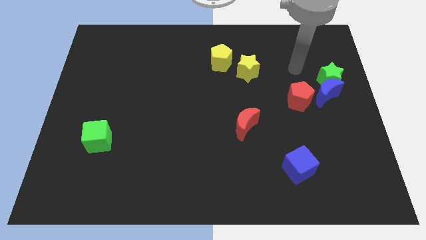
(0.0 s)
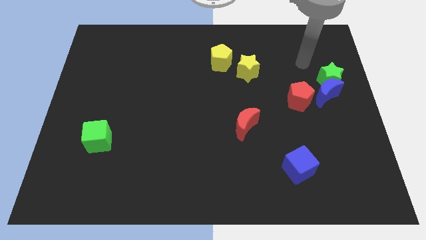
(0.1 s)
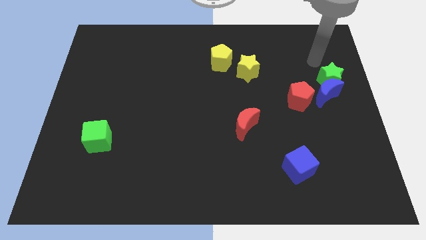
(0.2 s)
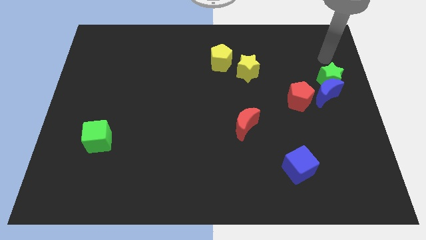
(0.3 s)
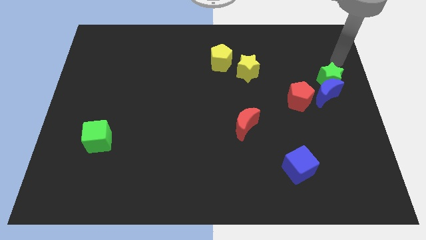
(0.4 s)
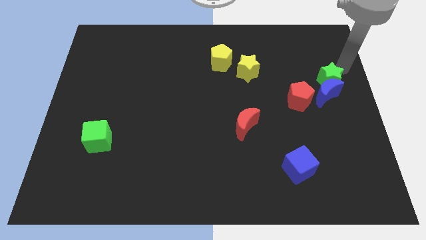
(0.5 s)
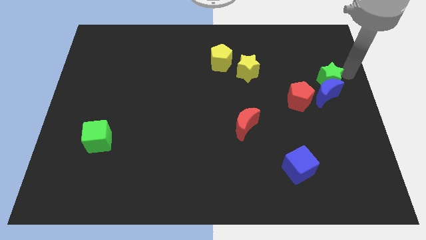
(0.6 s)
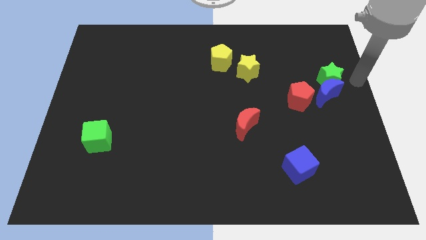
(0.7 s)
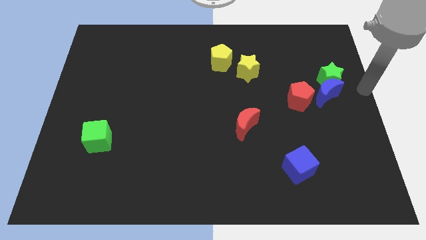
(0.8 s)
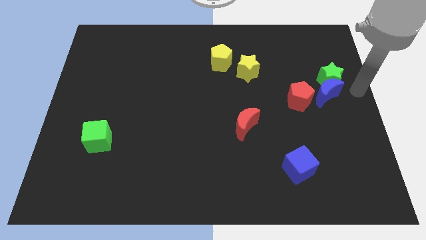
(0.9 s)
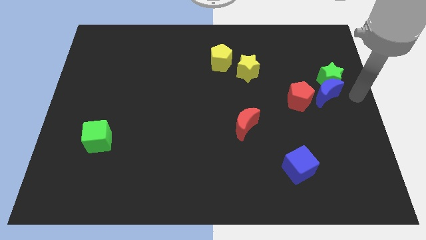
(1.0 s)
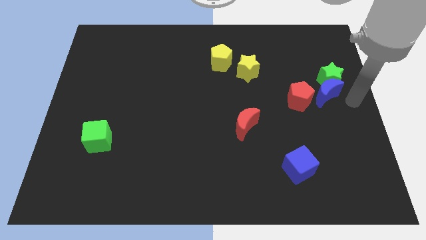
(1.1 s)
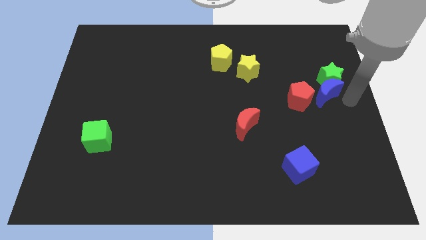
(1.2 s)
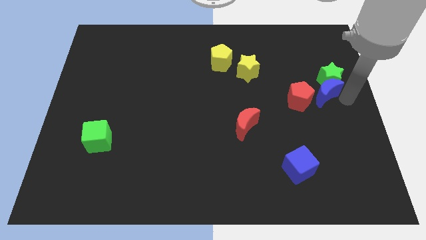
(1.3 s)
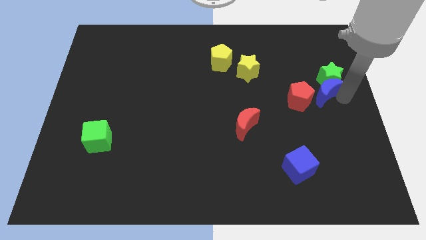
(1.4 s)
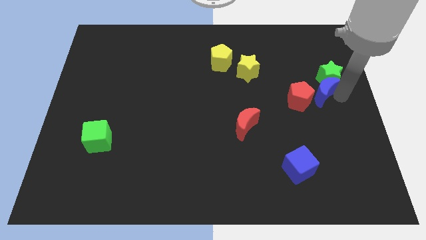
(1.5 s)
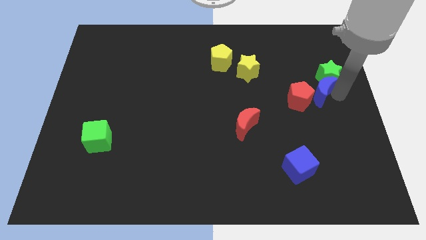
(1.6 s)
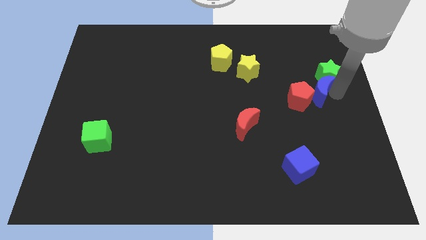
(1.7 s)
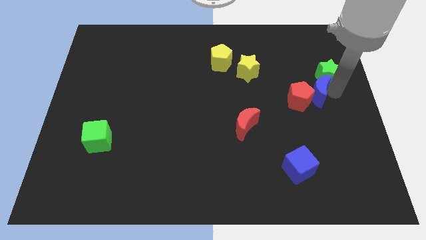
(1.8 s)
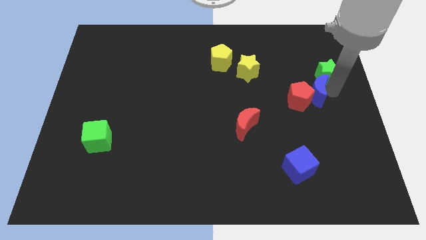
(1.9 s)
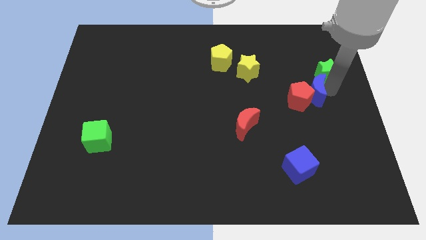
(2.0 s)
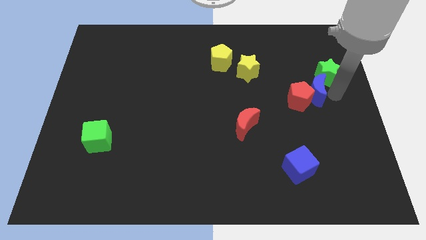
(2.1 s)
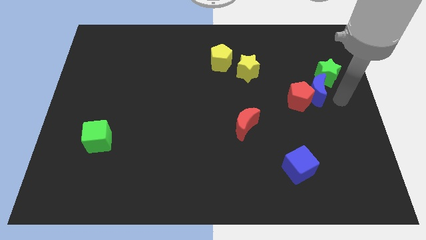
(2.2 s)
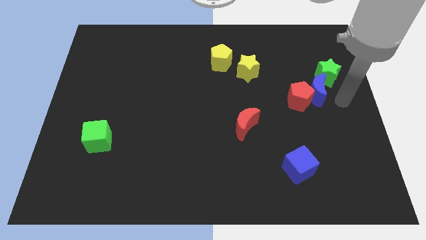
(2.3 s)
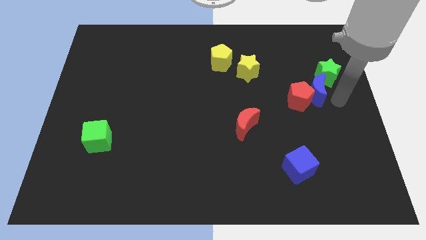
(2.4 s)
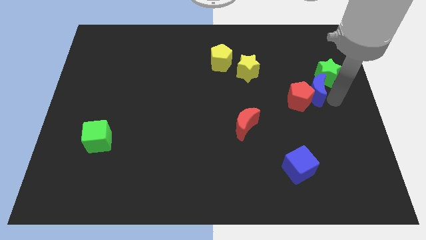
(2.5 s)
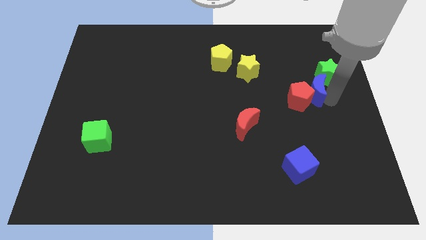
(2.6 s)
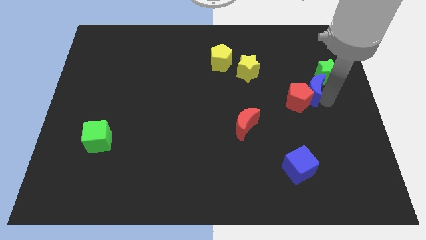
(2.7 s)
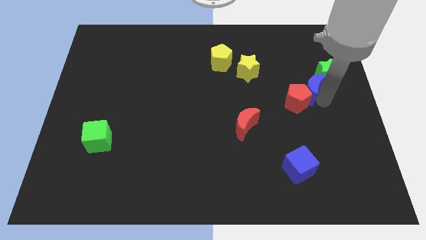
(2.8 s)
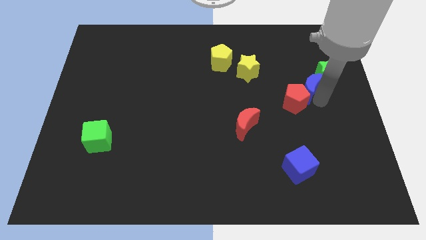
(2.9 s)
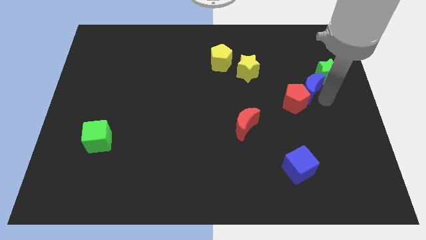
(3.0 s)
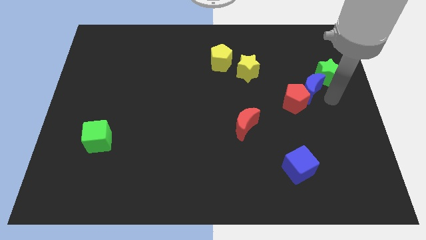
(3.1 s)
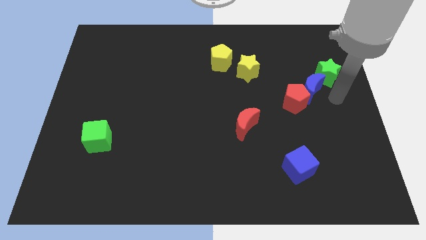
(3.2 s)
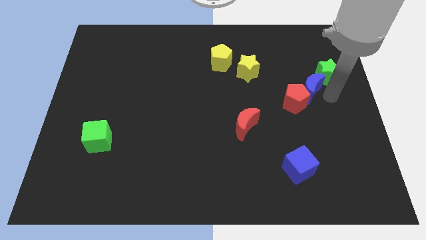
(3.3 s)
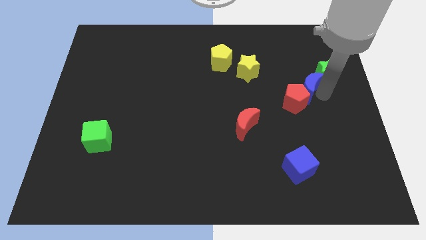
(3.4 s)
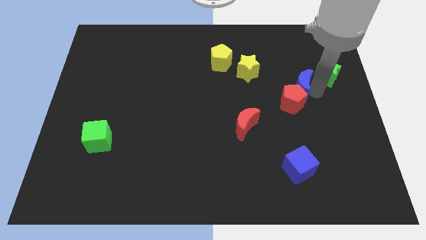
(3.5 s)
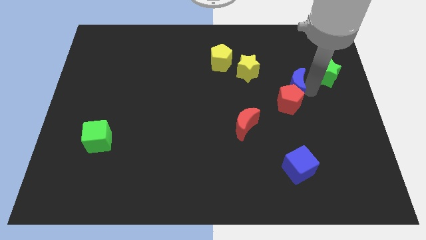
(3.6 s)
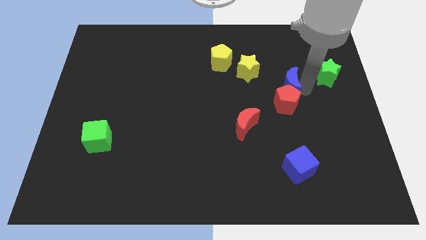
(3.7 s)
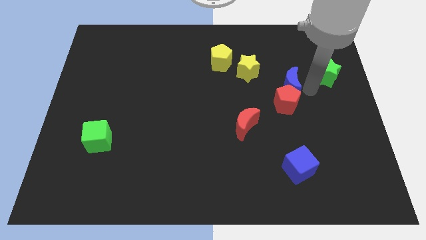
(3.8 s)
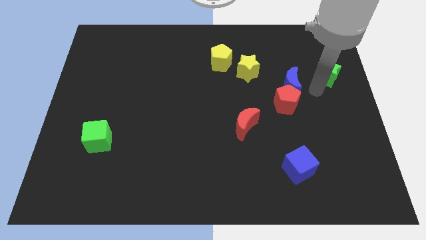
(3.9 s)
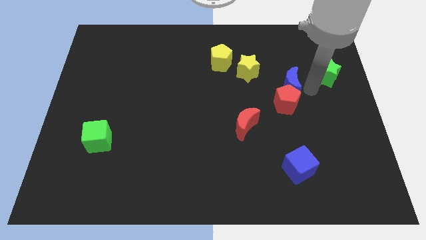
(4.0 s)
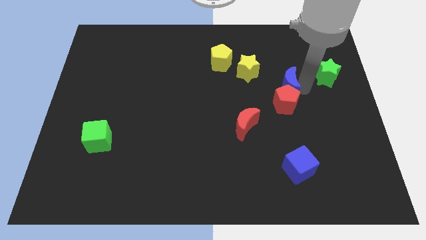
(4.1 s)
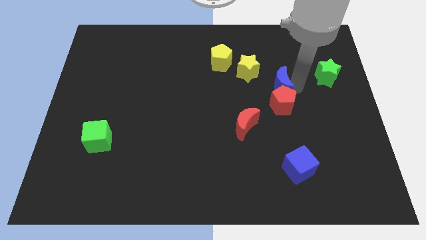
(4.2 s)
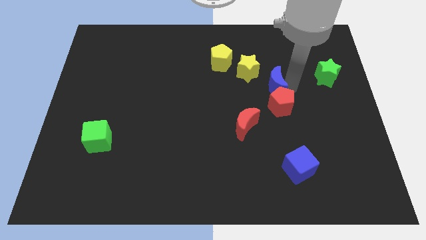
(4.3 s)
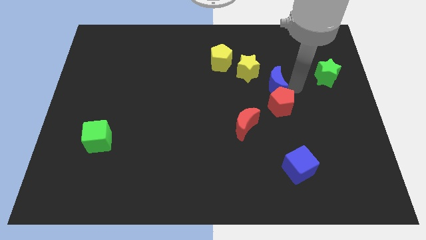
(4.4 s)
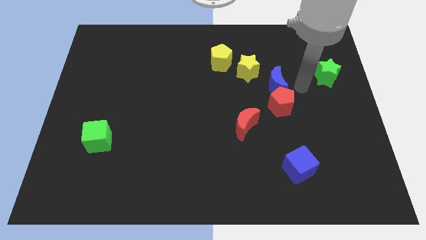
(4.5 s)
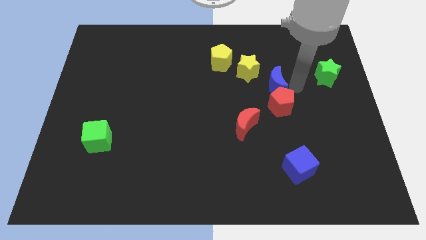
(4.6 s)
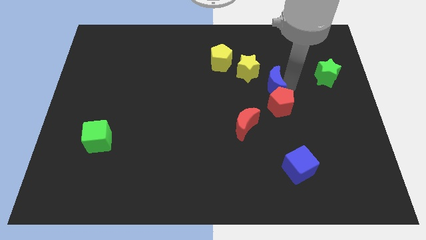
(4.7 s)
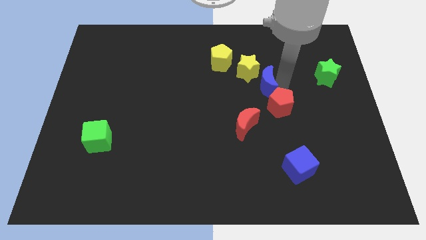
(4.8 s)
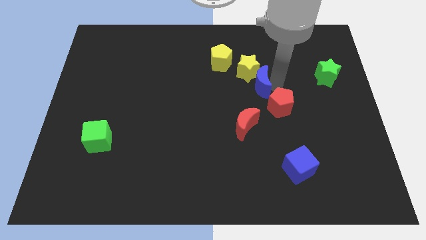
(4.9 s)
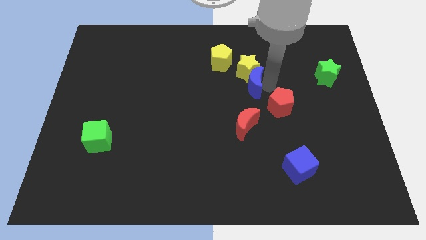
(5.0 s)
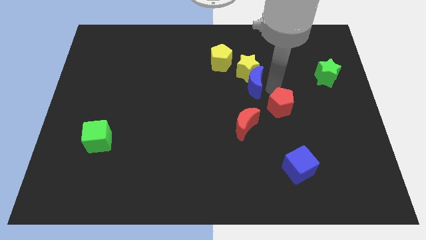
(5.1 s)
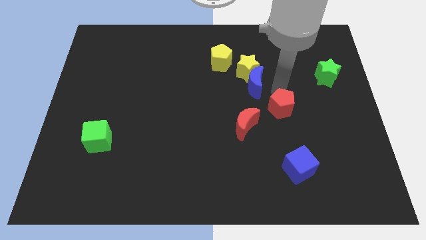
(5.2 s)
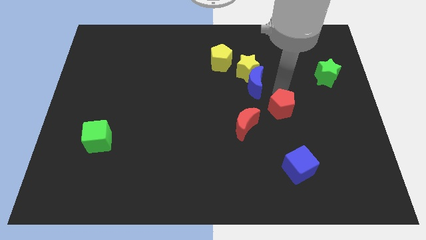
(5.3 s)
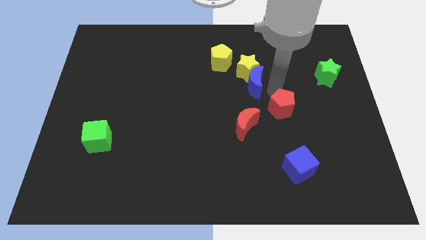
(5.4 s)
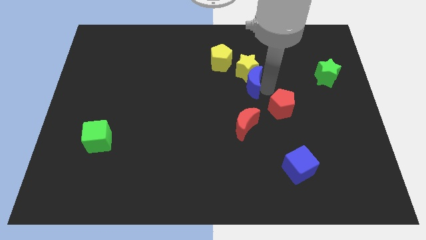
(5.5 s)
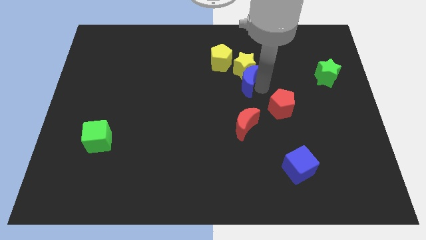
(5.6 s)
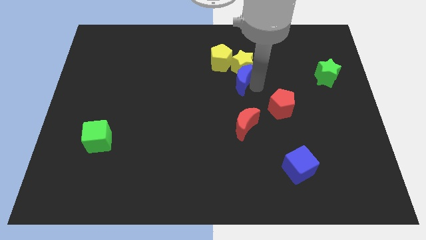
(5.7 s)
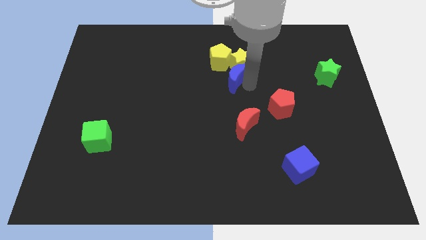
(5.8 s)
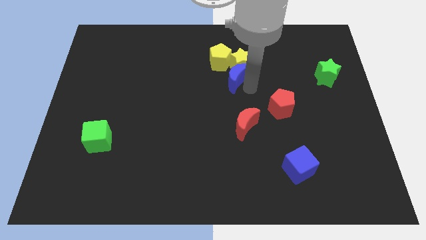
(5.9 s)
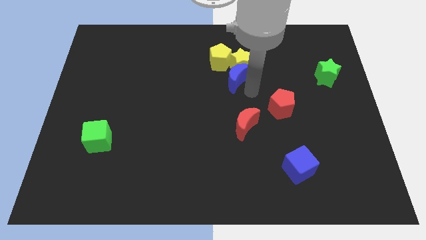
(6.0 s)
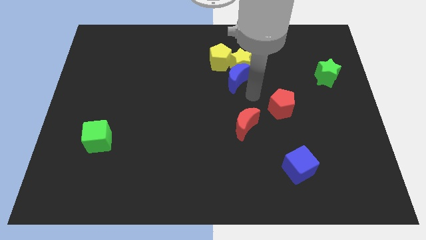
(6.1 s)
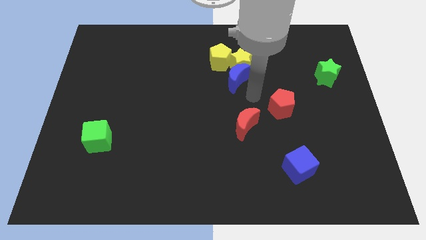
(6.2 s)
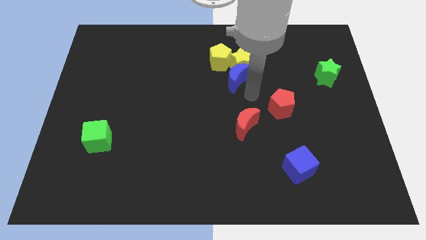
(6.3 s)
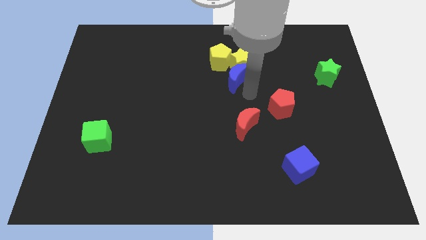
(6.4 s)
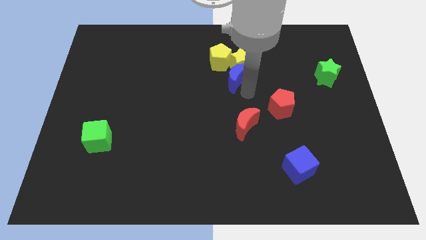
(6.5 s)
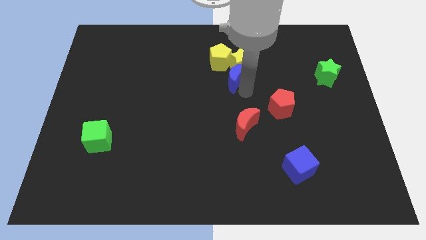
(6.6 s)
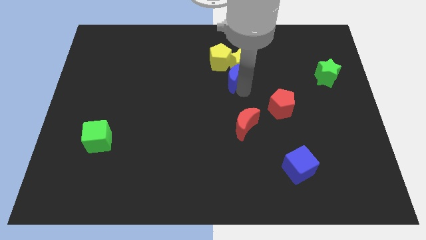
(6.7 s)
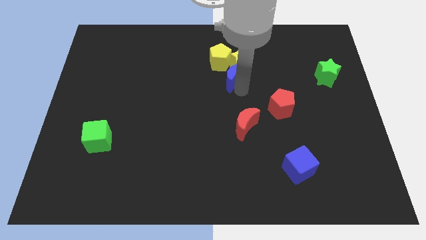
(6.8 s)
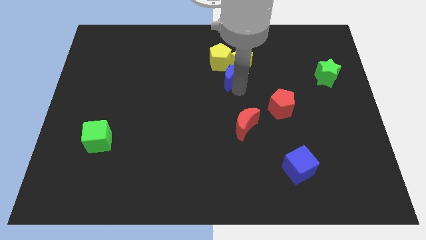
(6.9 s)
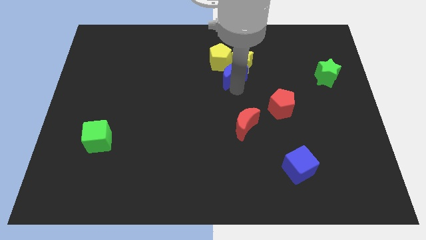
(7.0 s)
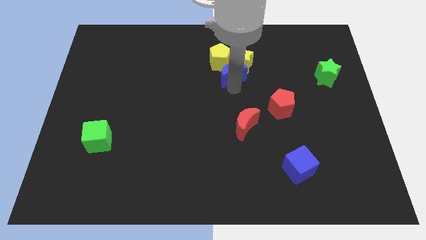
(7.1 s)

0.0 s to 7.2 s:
push the blue moon towards the yellow pentagon
